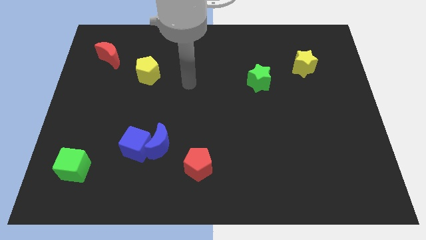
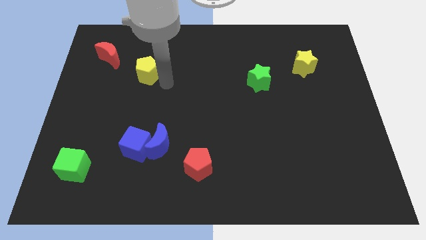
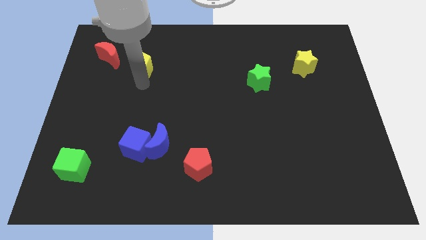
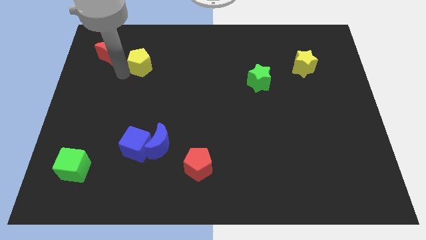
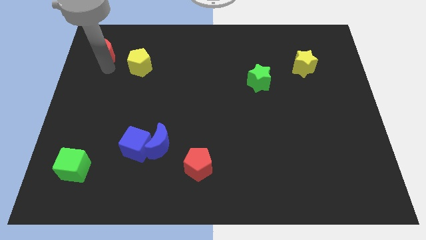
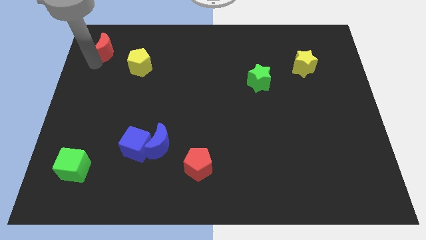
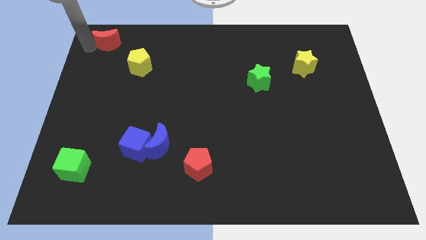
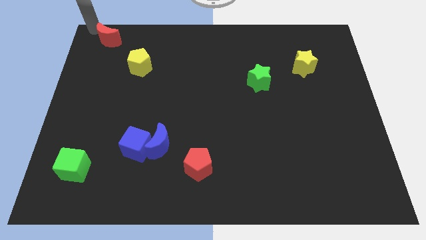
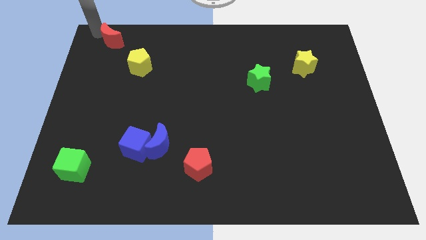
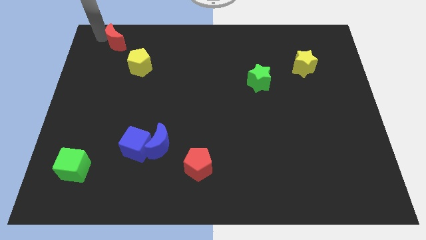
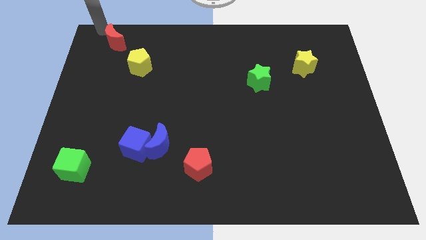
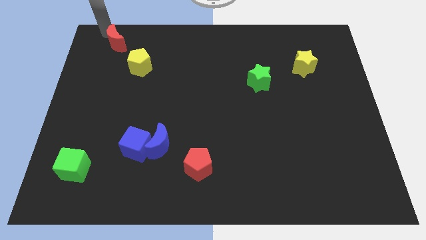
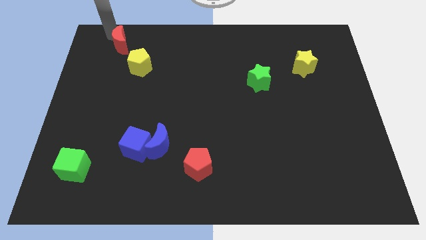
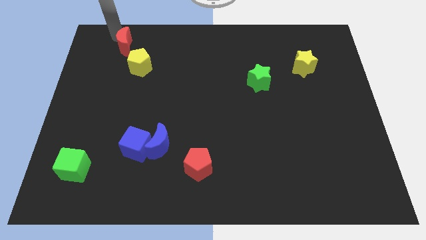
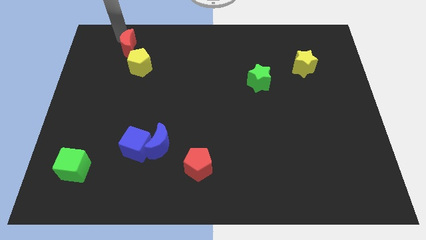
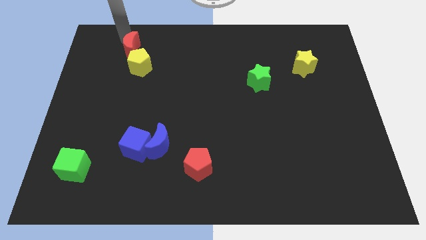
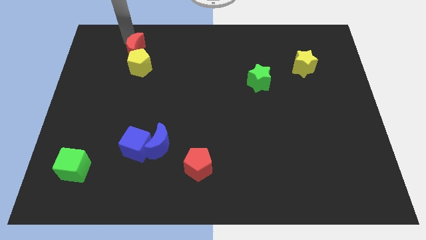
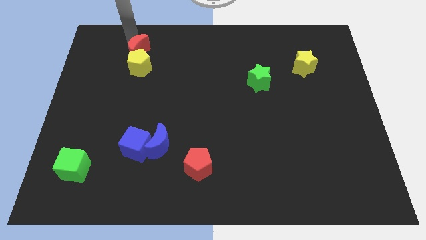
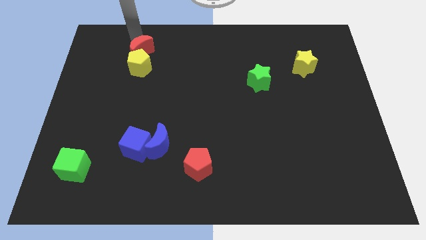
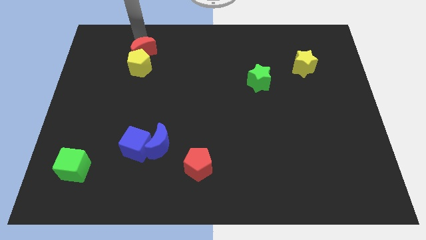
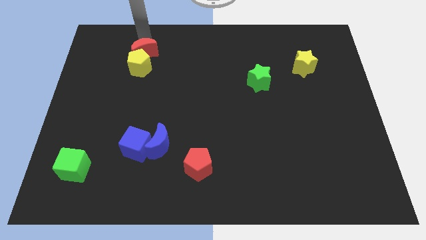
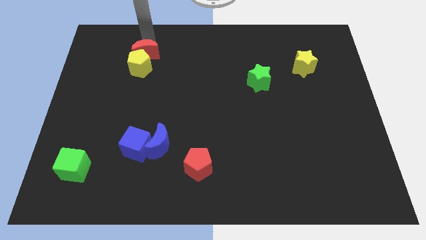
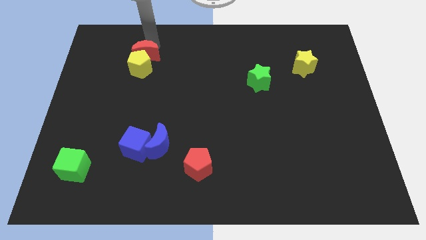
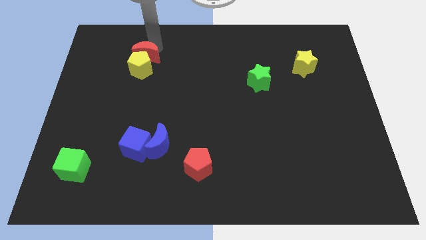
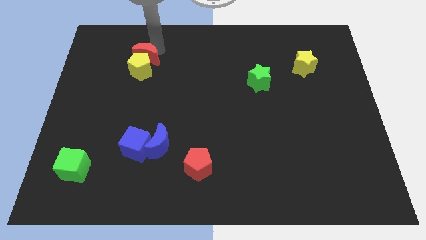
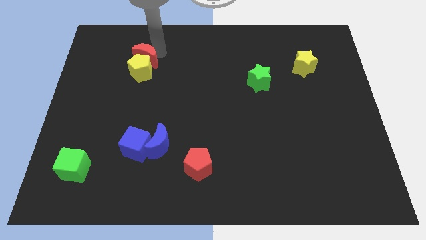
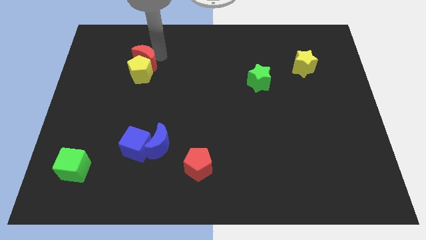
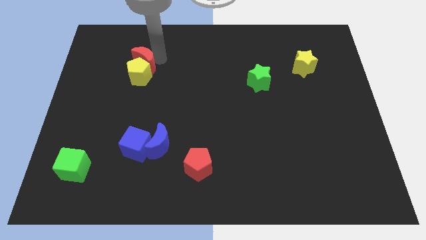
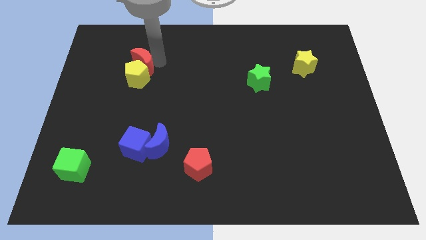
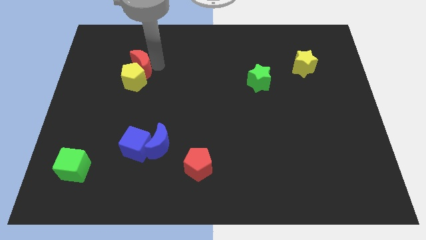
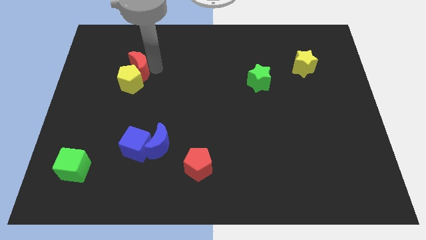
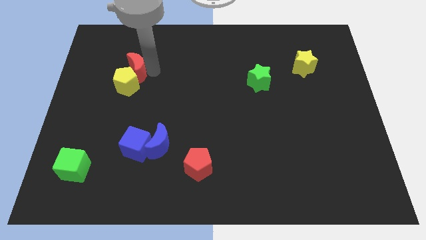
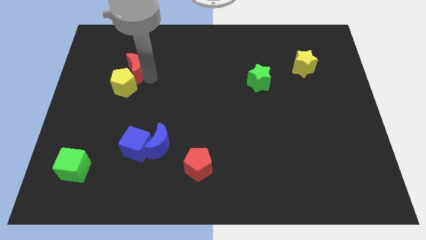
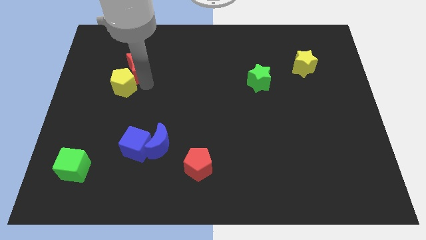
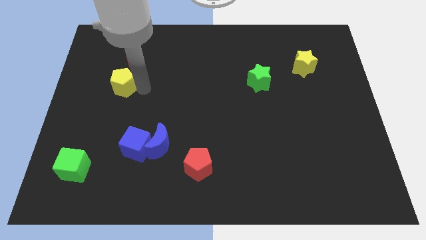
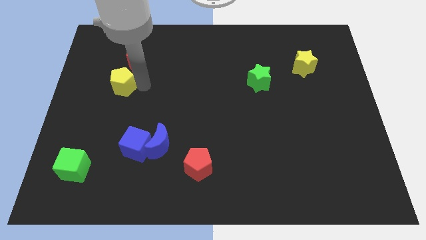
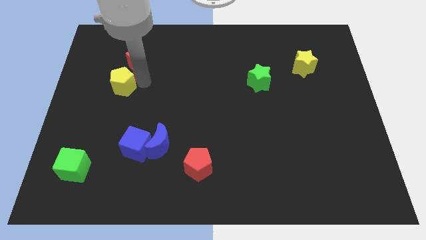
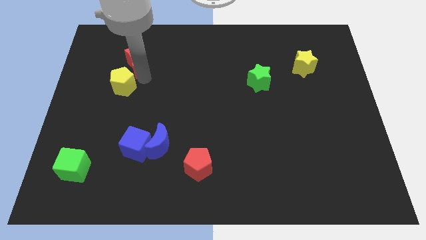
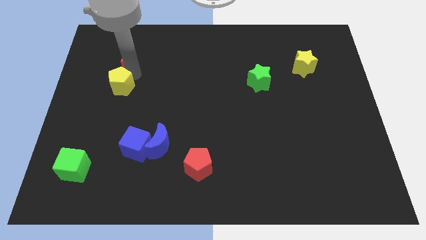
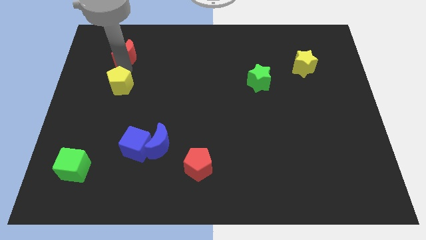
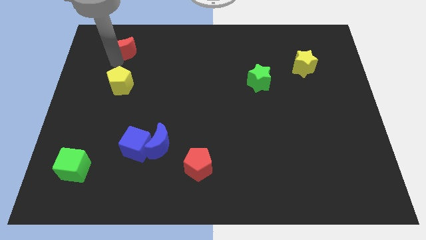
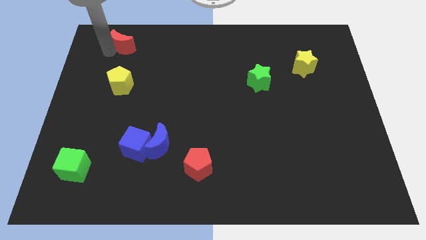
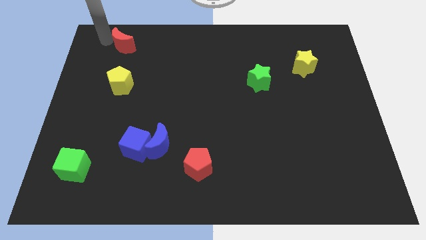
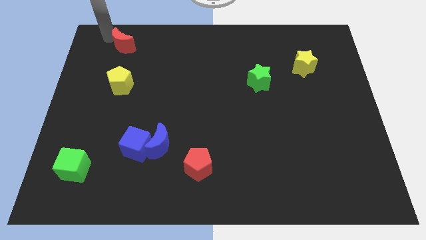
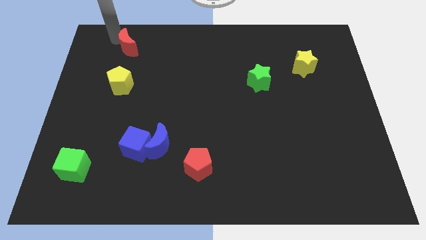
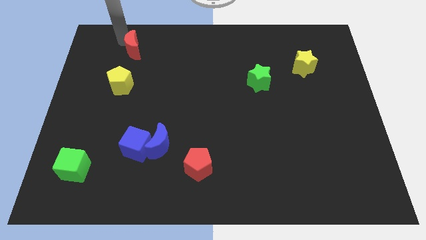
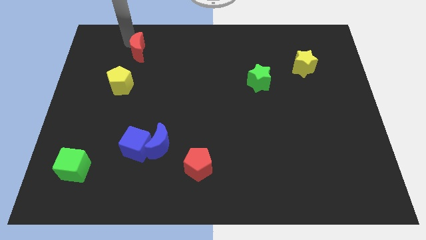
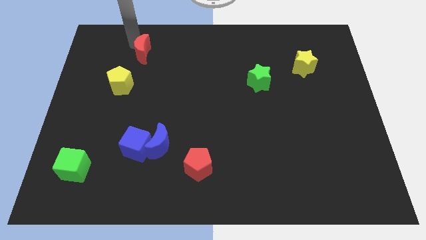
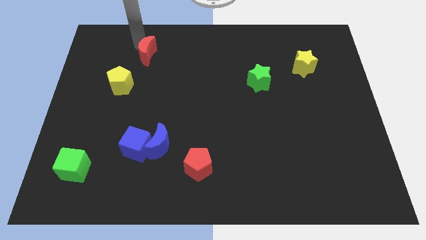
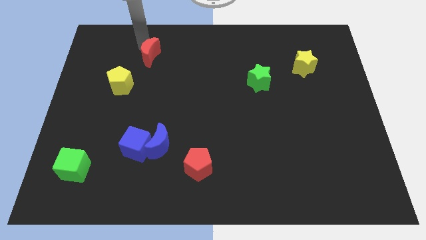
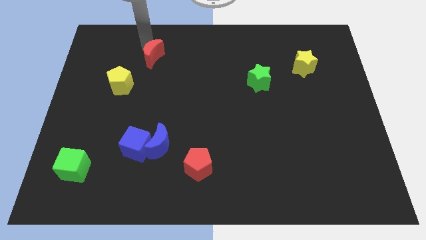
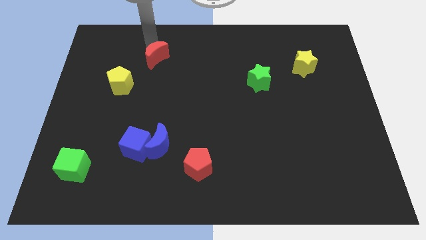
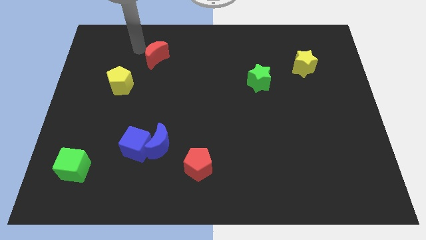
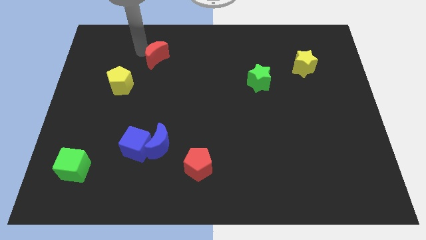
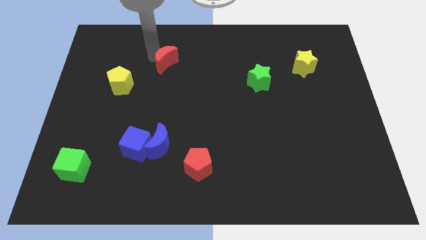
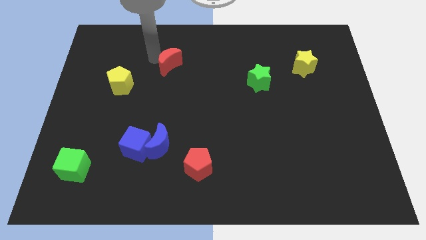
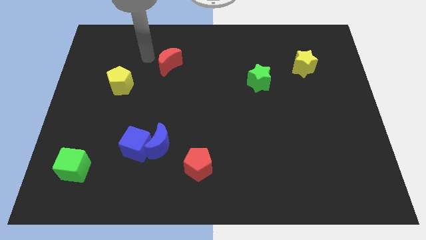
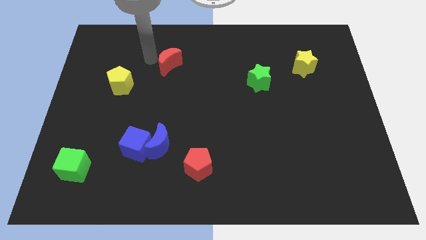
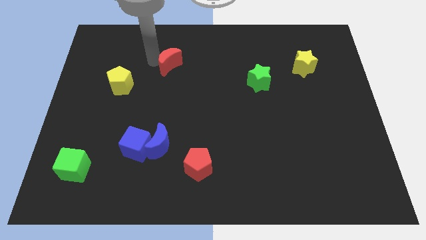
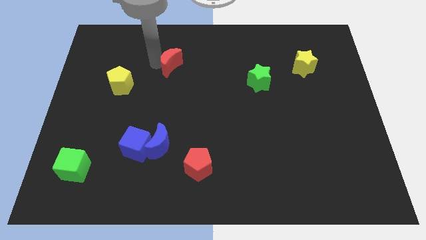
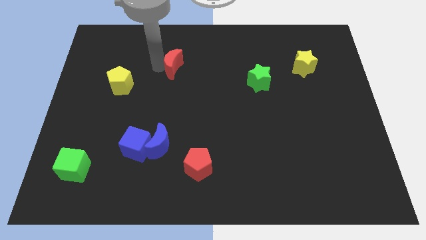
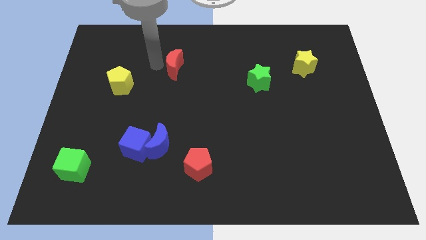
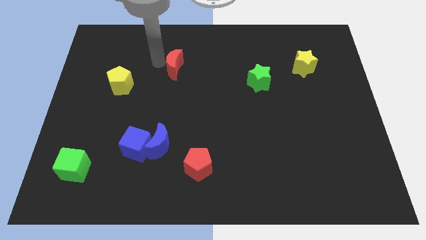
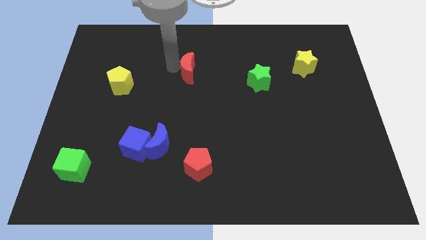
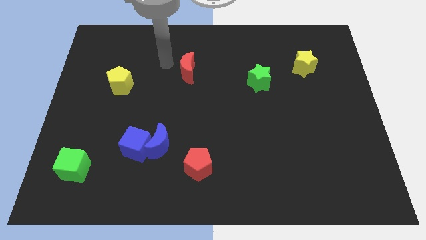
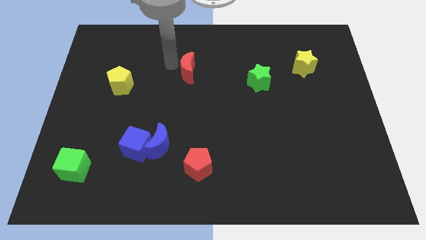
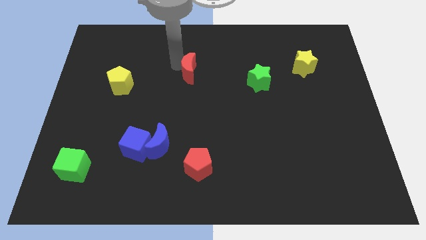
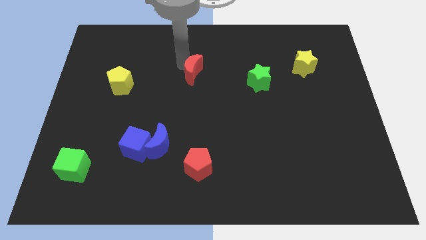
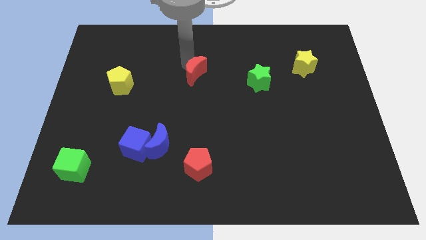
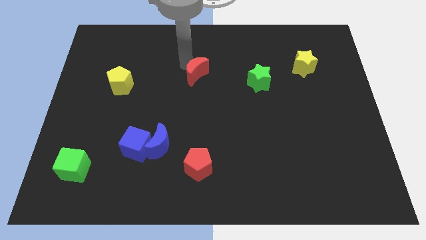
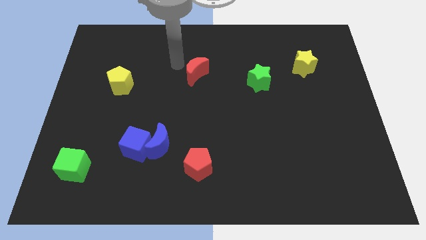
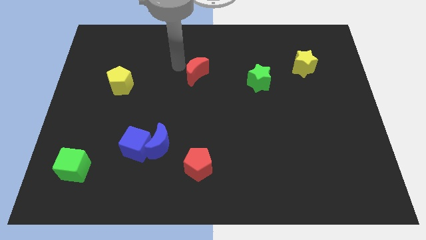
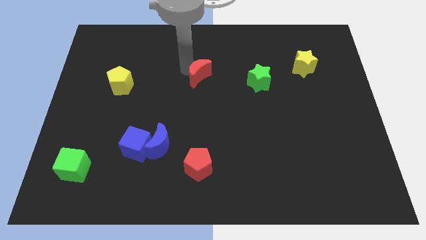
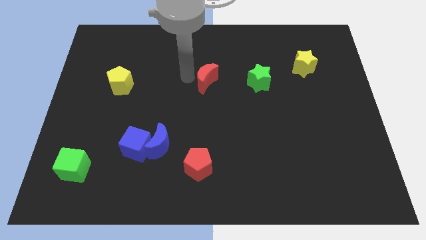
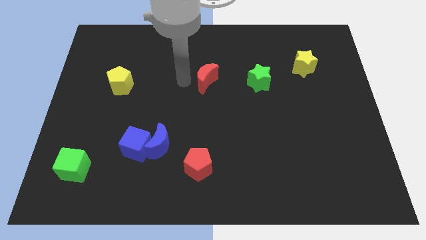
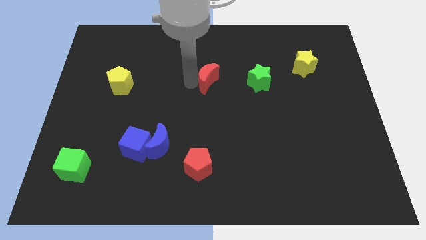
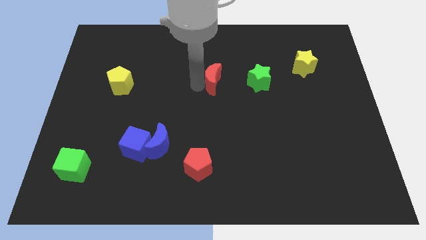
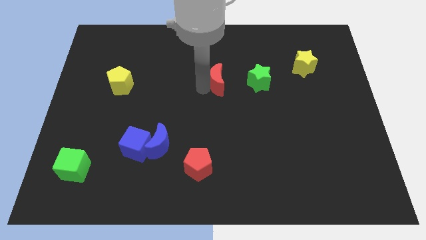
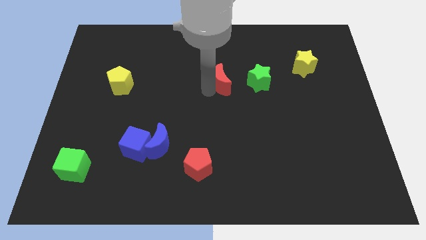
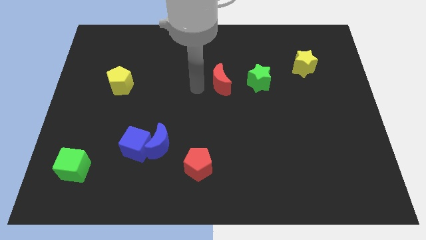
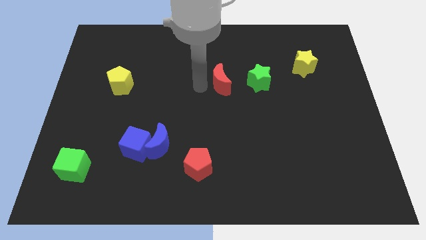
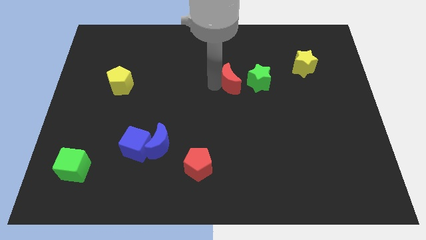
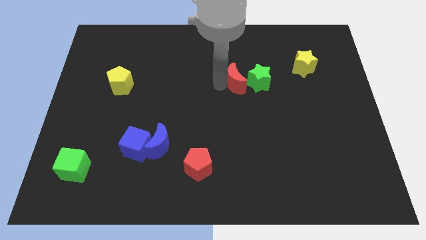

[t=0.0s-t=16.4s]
slide the red moon next to the green star
